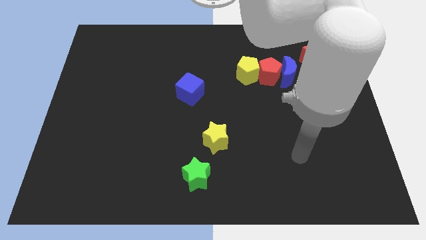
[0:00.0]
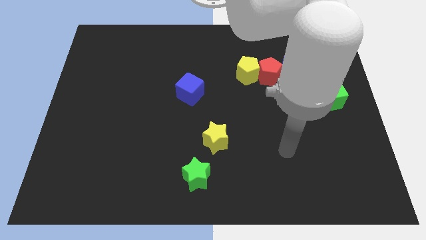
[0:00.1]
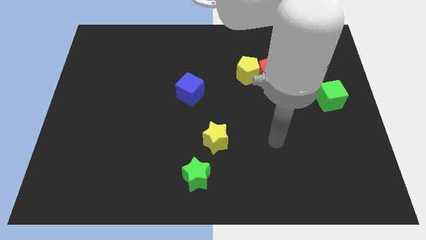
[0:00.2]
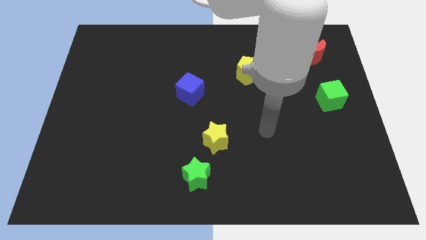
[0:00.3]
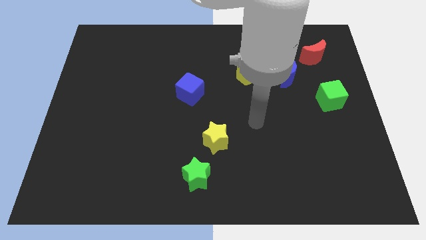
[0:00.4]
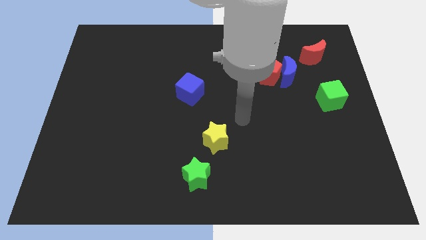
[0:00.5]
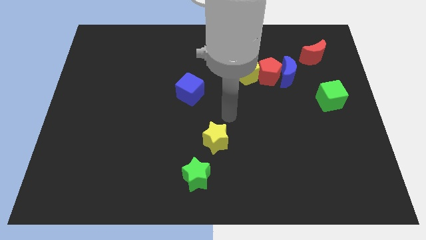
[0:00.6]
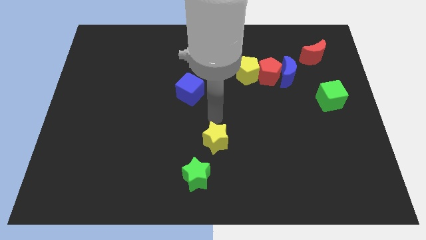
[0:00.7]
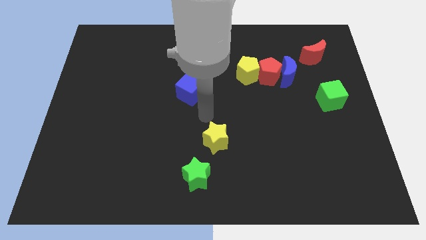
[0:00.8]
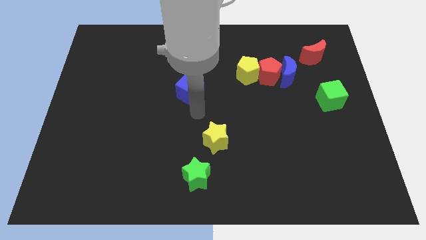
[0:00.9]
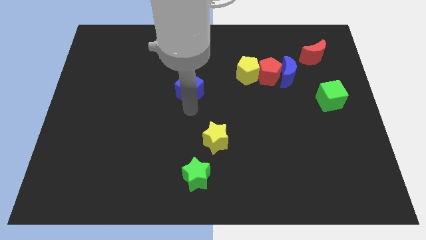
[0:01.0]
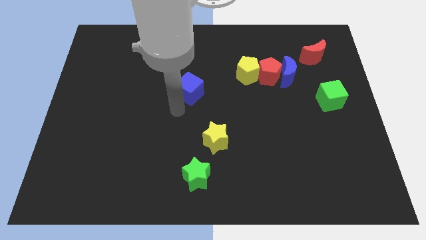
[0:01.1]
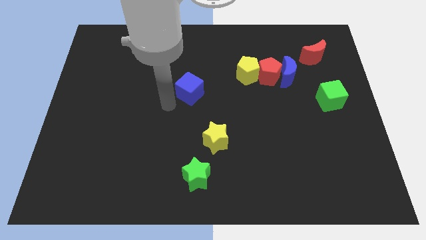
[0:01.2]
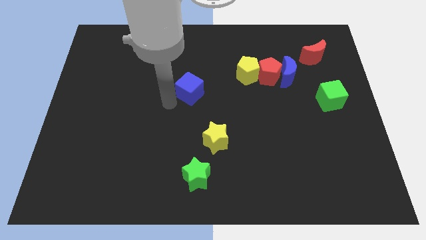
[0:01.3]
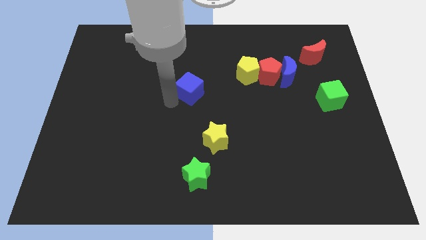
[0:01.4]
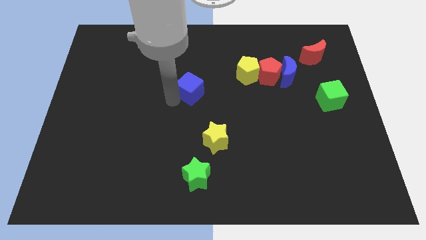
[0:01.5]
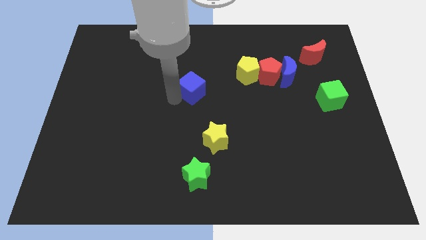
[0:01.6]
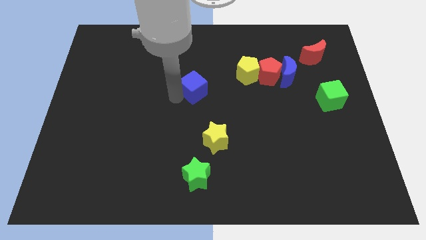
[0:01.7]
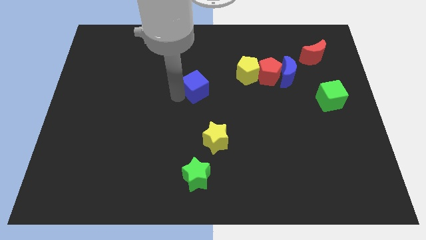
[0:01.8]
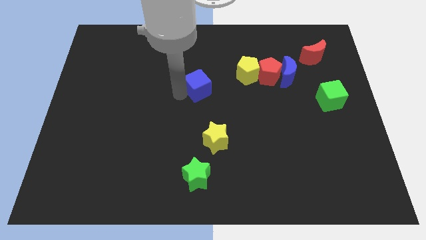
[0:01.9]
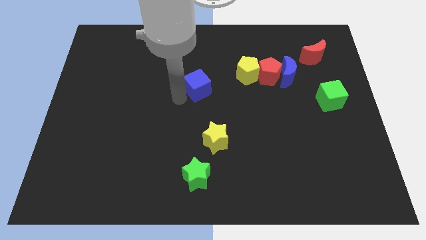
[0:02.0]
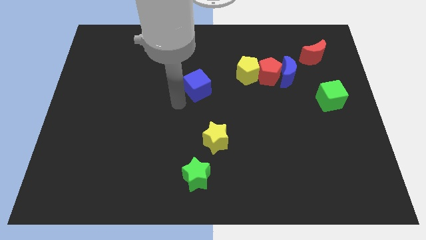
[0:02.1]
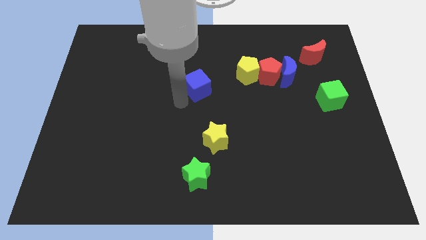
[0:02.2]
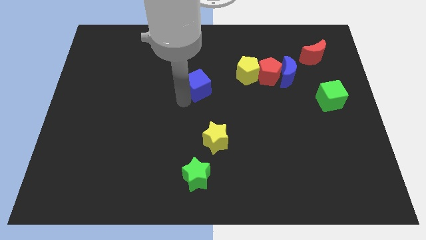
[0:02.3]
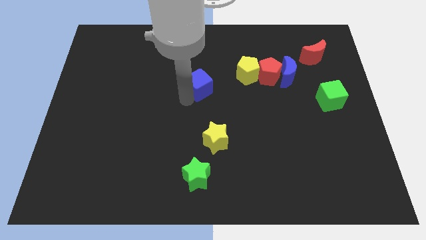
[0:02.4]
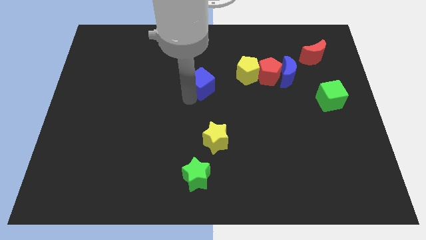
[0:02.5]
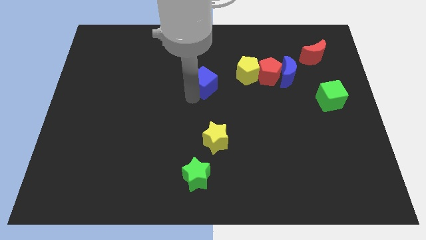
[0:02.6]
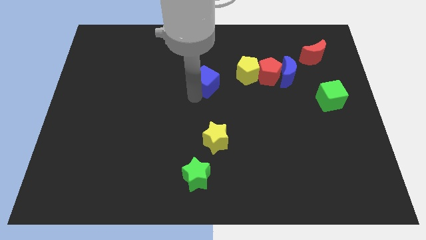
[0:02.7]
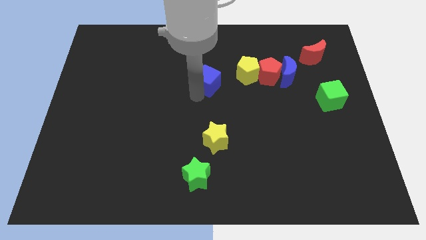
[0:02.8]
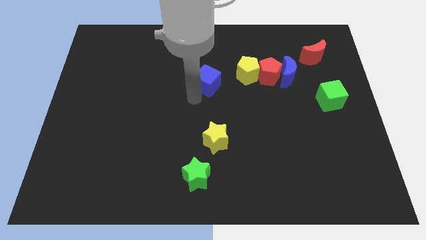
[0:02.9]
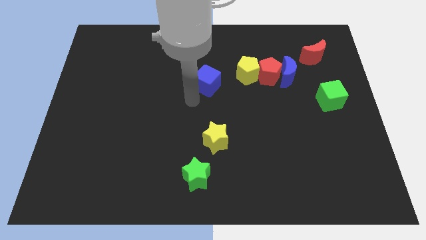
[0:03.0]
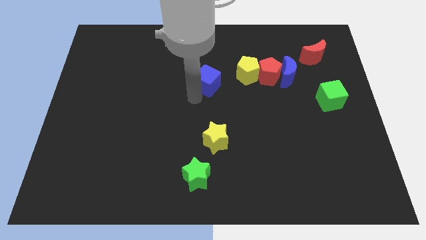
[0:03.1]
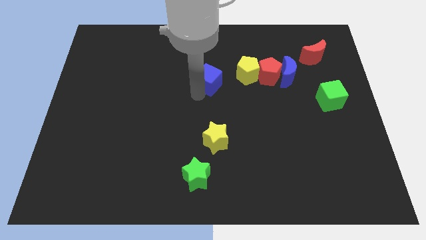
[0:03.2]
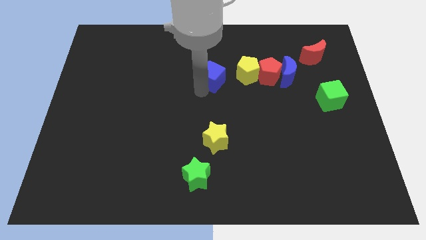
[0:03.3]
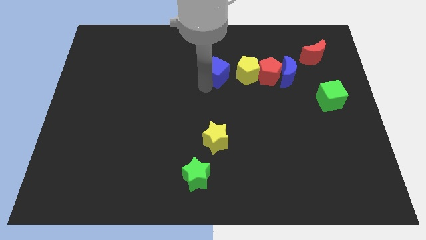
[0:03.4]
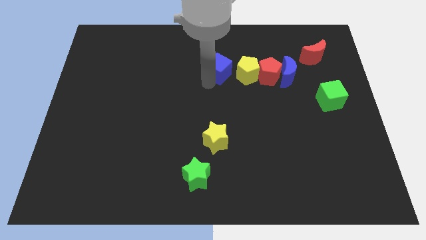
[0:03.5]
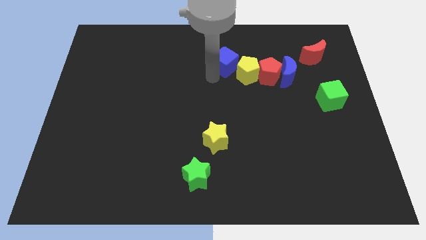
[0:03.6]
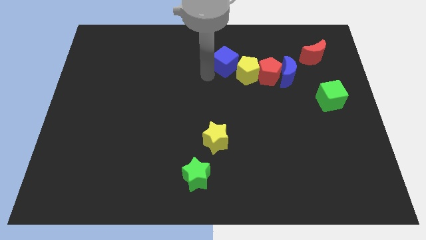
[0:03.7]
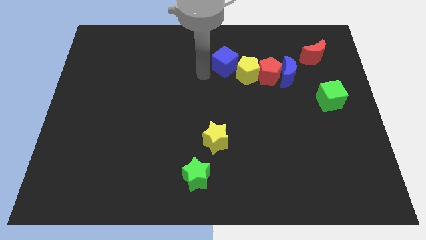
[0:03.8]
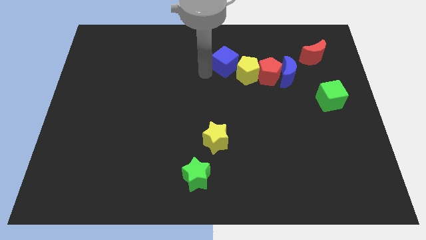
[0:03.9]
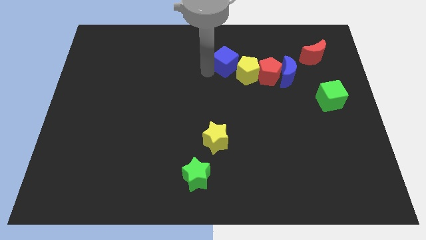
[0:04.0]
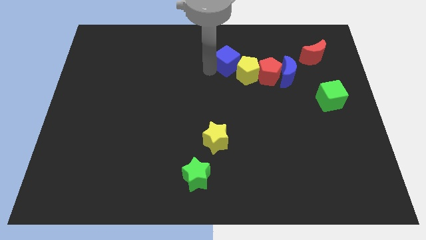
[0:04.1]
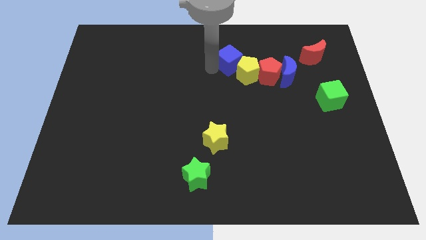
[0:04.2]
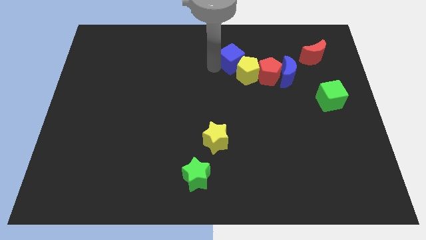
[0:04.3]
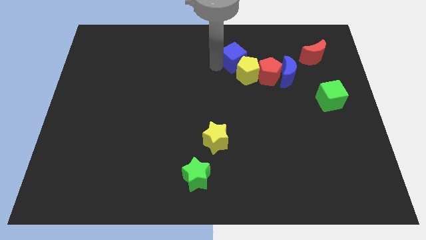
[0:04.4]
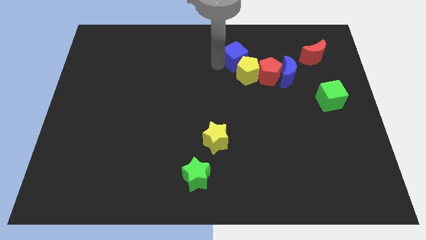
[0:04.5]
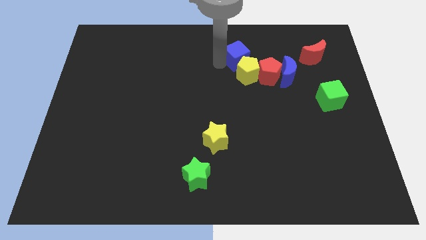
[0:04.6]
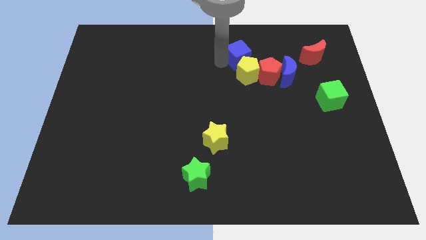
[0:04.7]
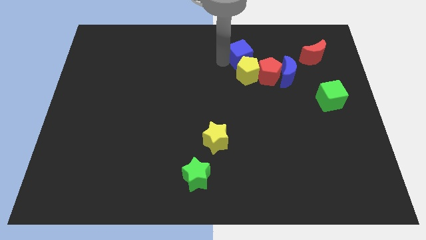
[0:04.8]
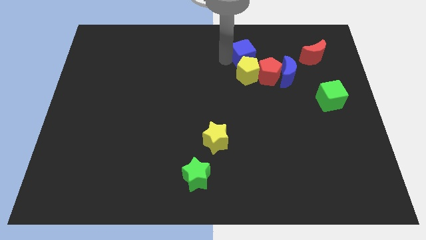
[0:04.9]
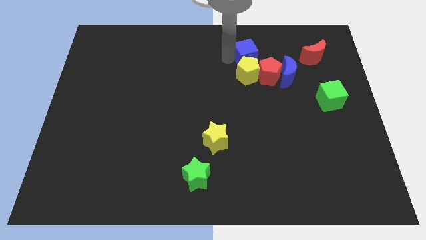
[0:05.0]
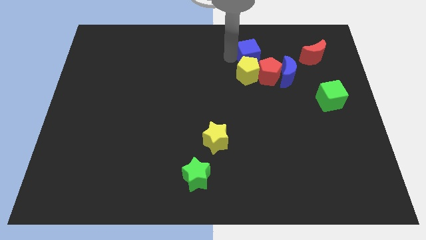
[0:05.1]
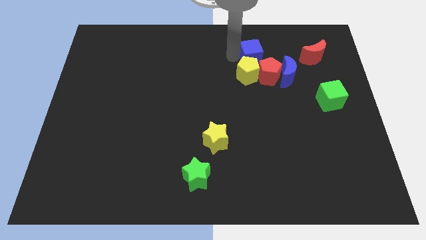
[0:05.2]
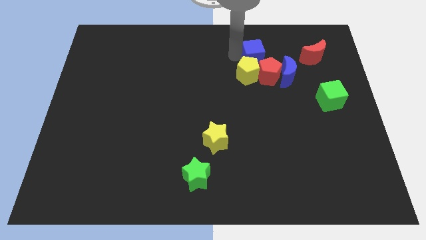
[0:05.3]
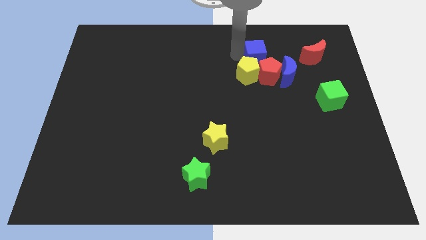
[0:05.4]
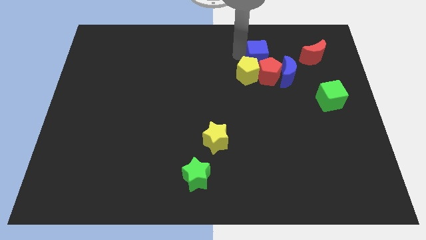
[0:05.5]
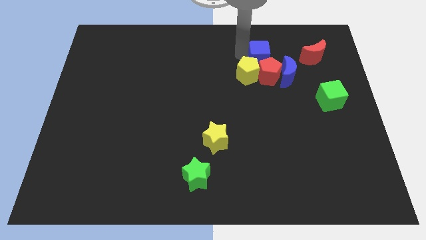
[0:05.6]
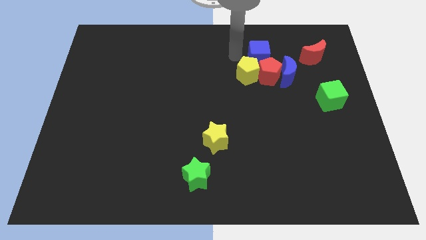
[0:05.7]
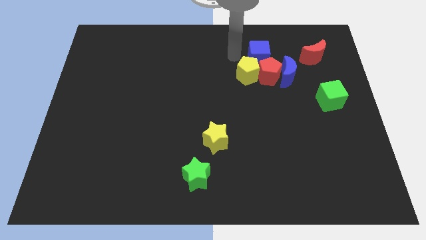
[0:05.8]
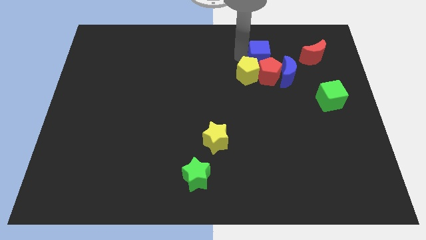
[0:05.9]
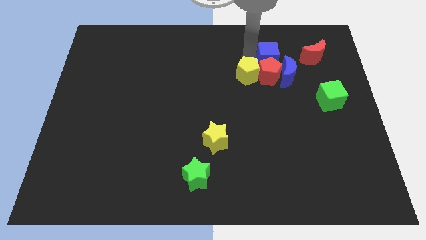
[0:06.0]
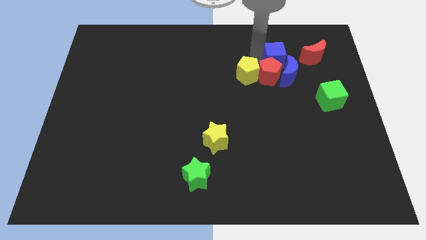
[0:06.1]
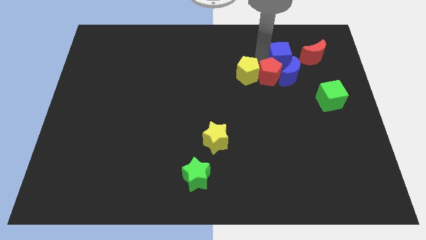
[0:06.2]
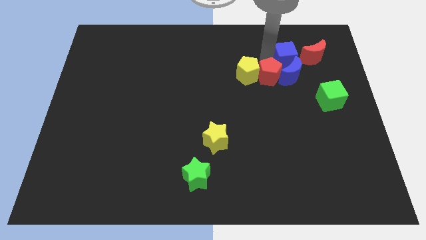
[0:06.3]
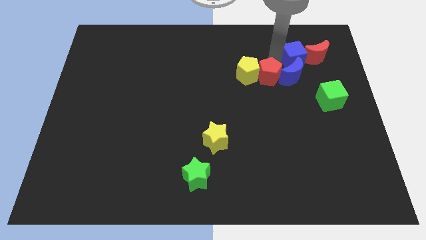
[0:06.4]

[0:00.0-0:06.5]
move the blue cube to the red moon
